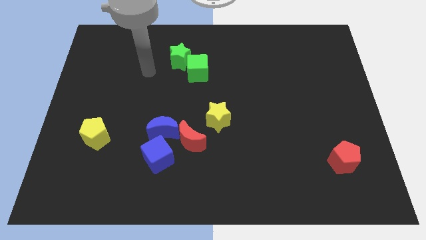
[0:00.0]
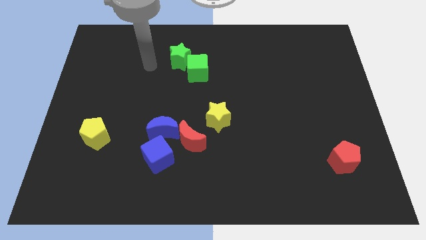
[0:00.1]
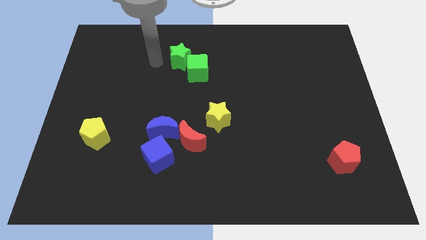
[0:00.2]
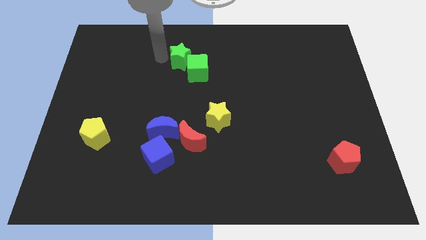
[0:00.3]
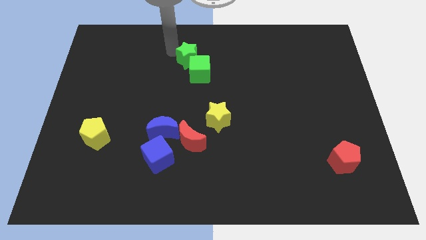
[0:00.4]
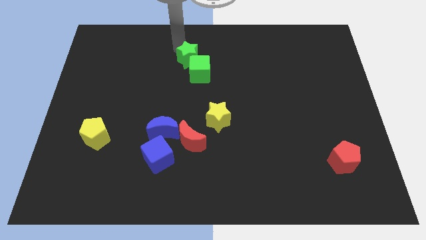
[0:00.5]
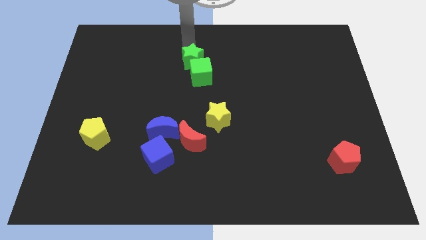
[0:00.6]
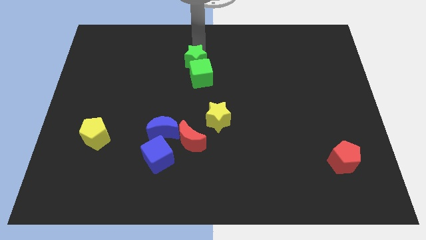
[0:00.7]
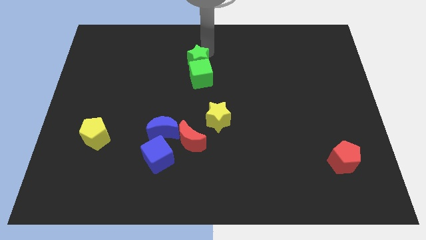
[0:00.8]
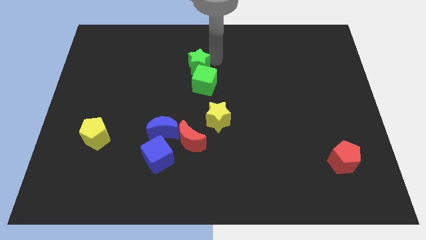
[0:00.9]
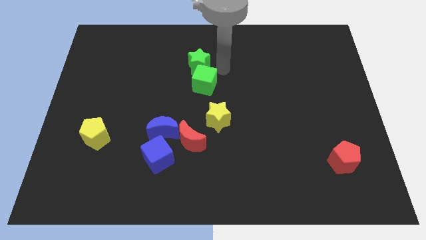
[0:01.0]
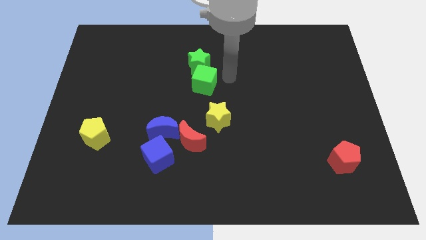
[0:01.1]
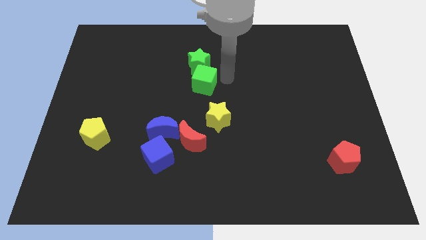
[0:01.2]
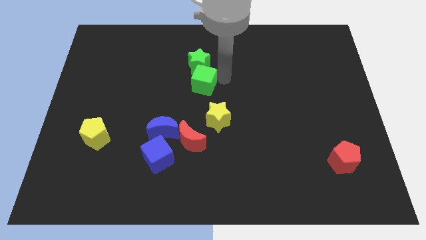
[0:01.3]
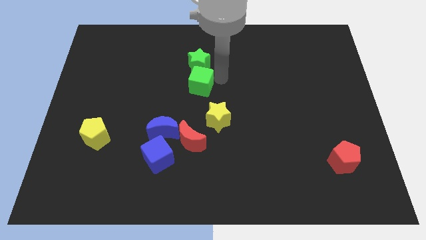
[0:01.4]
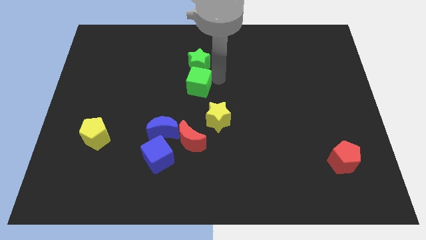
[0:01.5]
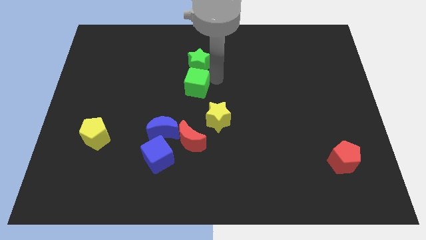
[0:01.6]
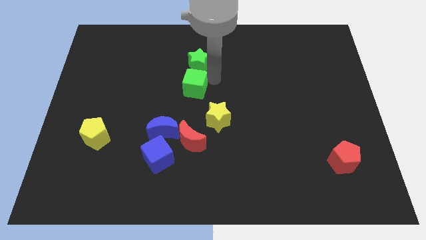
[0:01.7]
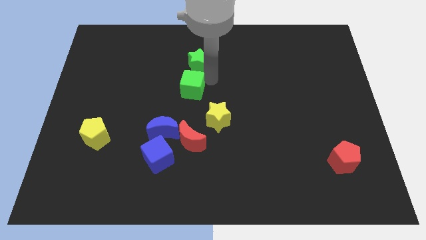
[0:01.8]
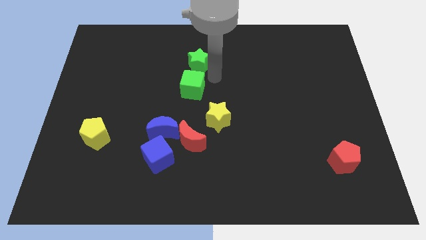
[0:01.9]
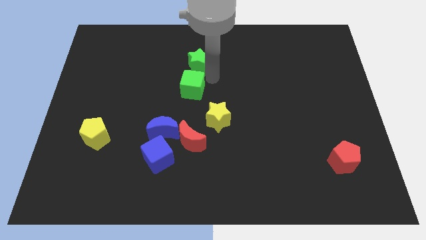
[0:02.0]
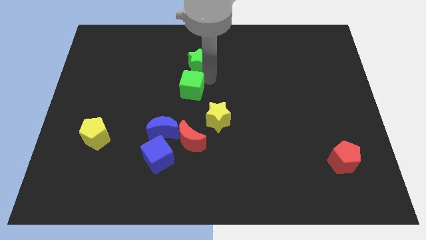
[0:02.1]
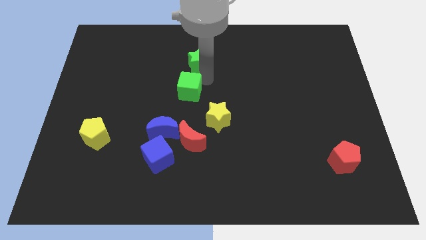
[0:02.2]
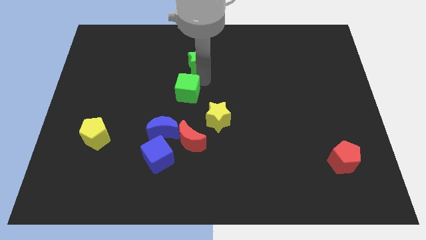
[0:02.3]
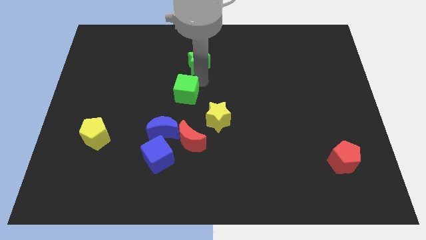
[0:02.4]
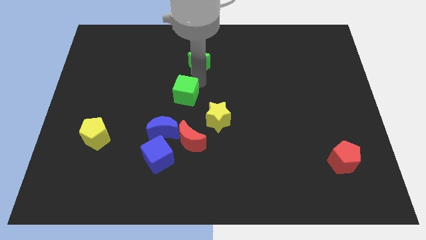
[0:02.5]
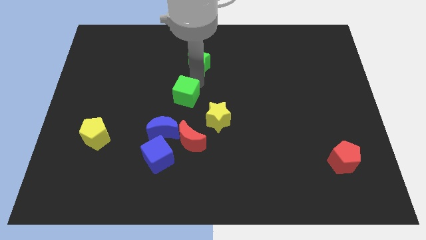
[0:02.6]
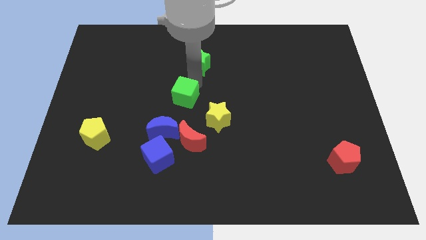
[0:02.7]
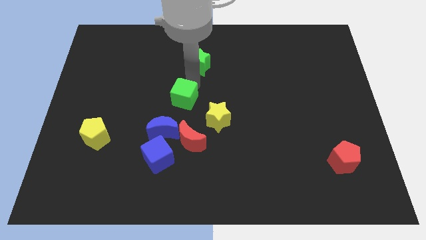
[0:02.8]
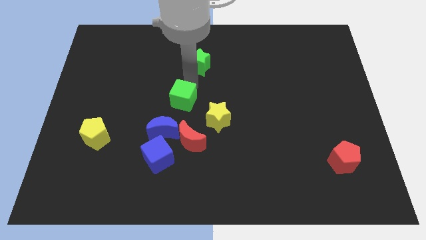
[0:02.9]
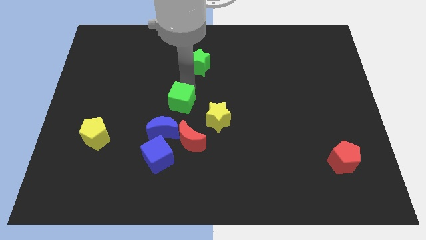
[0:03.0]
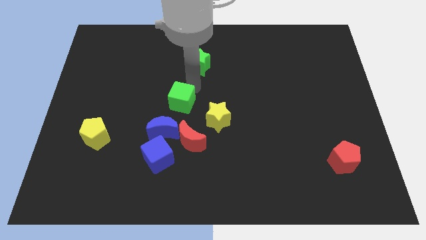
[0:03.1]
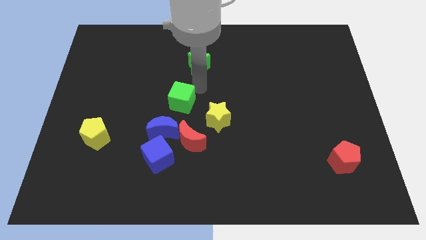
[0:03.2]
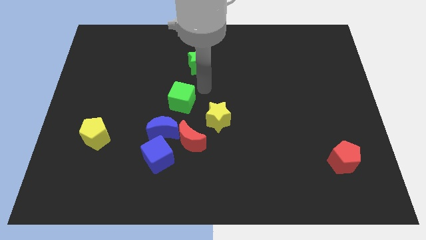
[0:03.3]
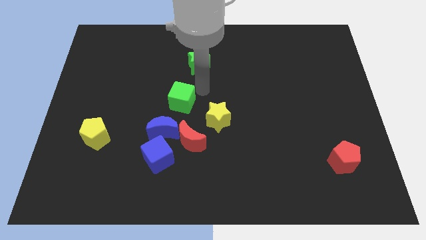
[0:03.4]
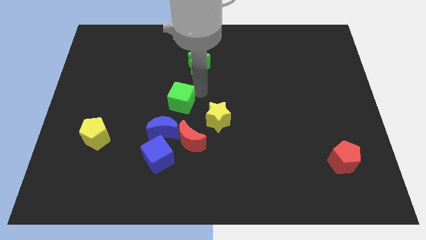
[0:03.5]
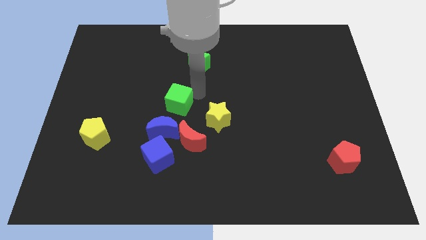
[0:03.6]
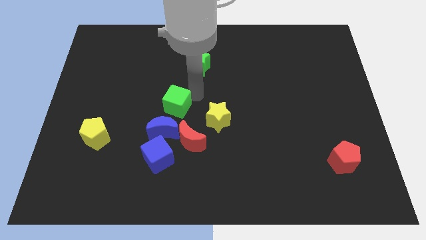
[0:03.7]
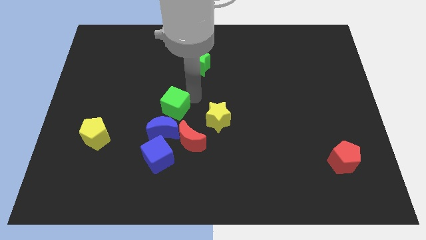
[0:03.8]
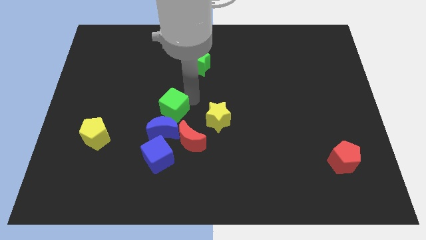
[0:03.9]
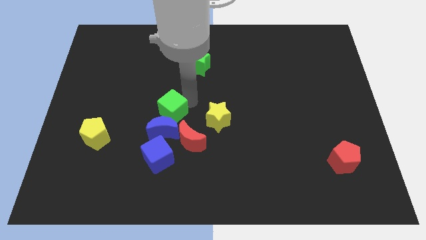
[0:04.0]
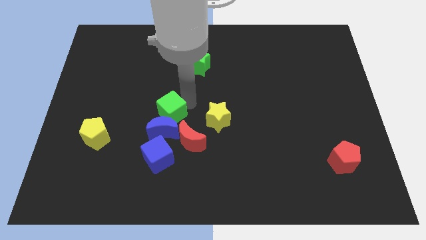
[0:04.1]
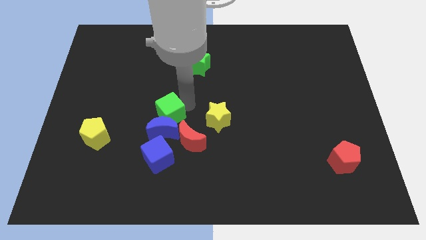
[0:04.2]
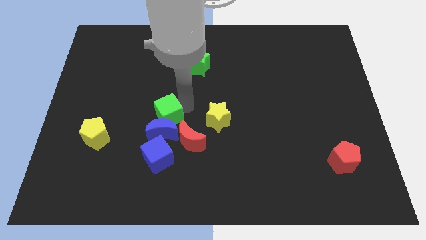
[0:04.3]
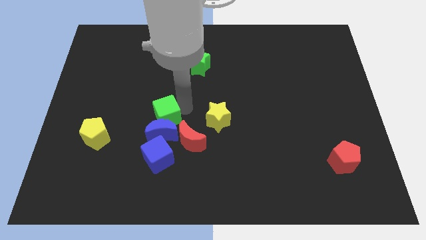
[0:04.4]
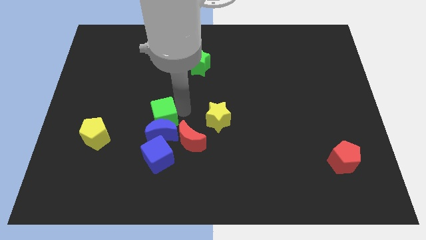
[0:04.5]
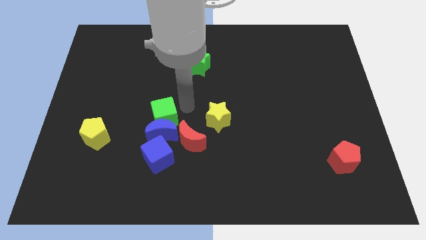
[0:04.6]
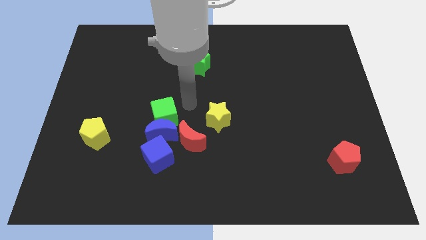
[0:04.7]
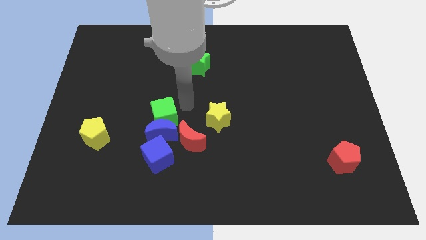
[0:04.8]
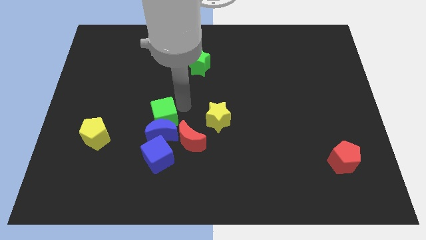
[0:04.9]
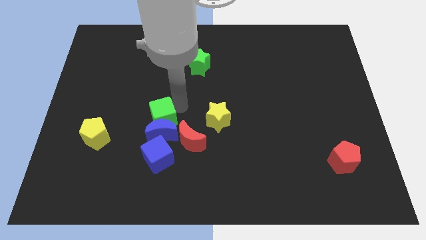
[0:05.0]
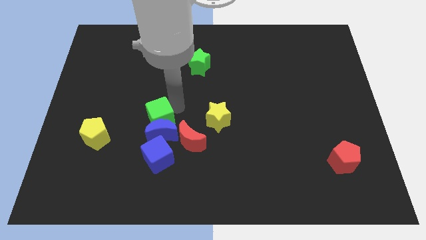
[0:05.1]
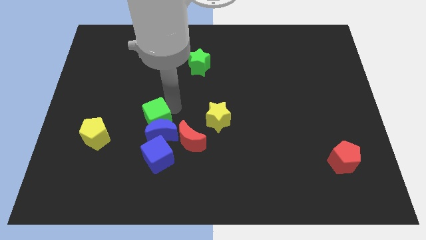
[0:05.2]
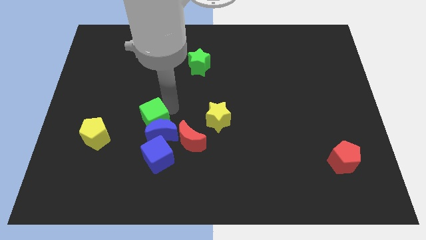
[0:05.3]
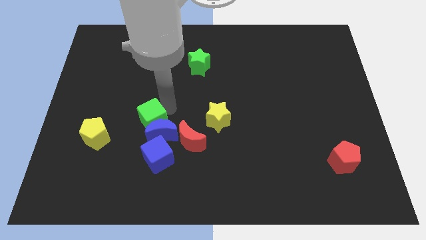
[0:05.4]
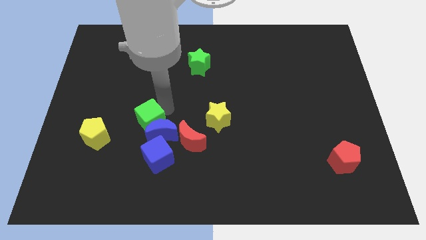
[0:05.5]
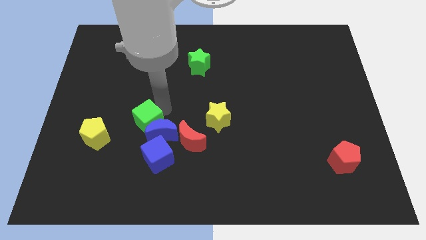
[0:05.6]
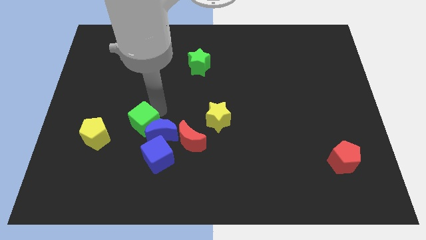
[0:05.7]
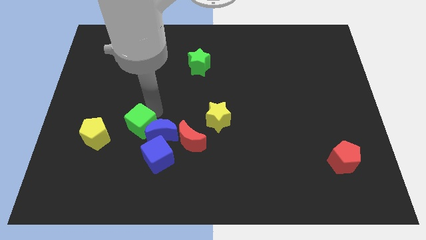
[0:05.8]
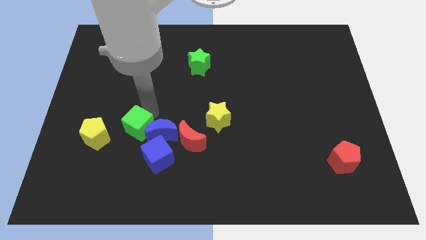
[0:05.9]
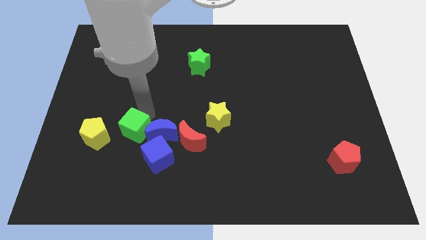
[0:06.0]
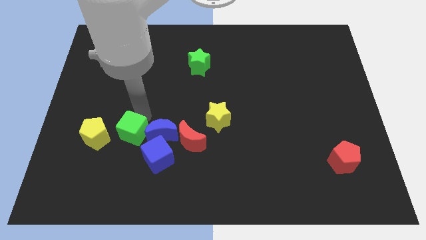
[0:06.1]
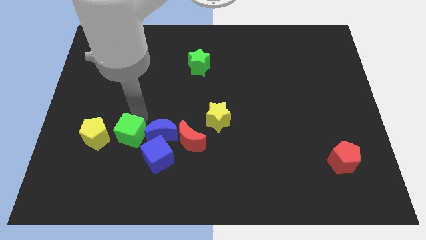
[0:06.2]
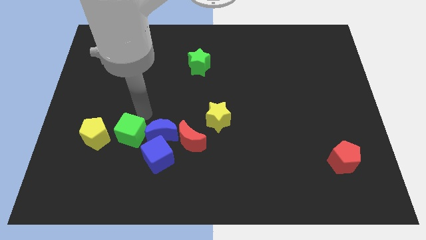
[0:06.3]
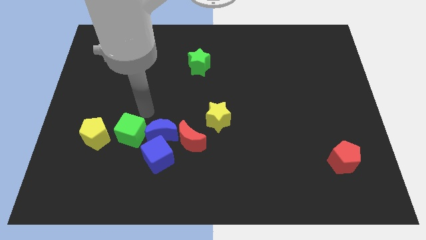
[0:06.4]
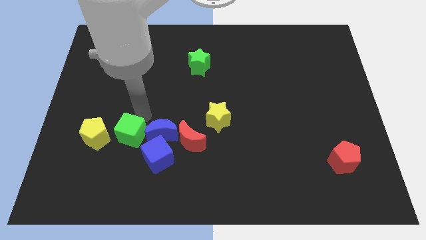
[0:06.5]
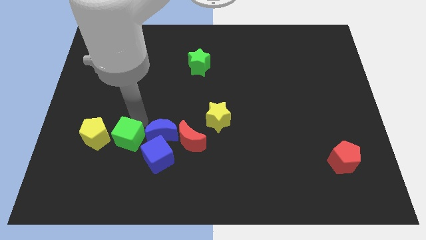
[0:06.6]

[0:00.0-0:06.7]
push the green cube to the bottom right side of the yellow pentagon

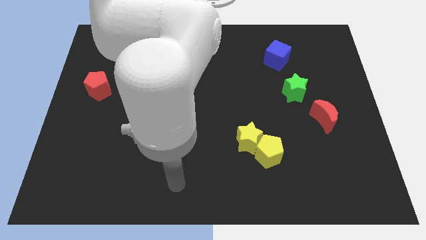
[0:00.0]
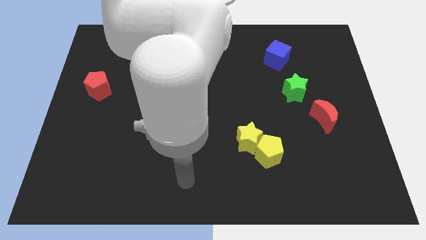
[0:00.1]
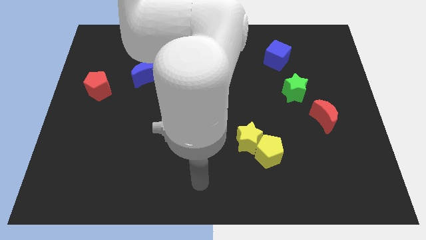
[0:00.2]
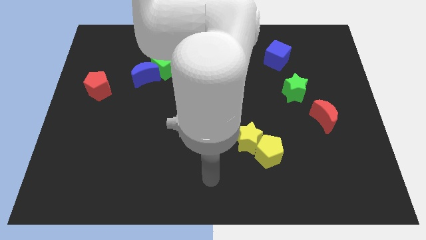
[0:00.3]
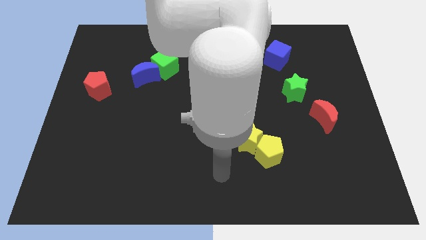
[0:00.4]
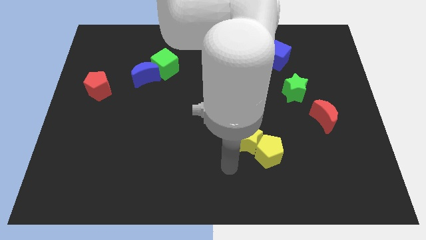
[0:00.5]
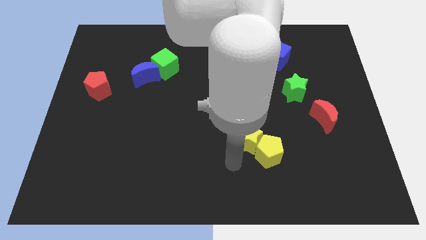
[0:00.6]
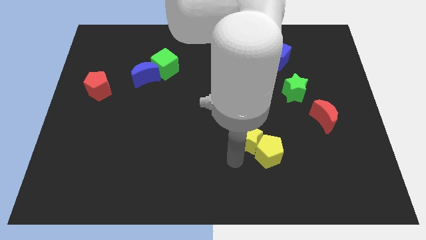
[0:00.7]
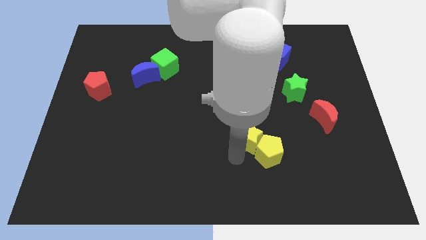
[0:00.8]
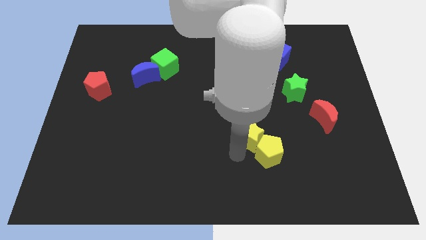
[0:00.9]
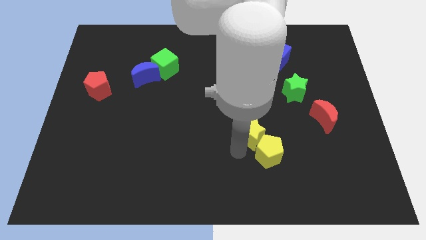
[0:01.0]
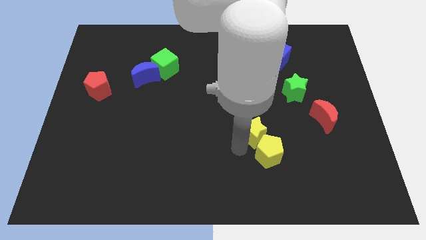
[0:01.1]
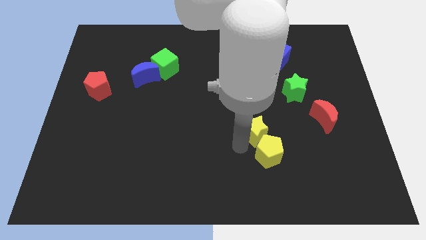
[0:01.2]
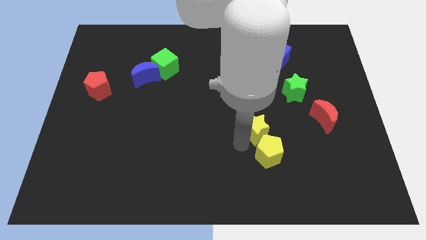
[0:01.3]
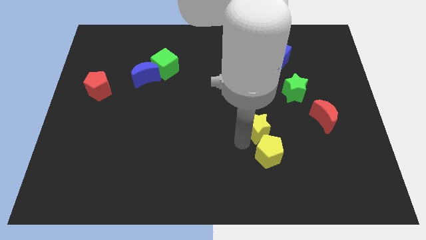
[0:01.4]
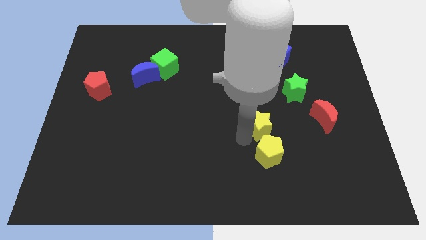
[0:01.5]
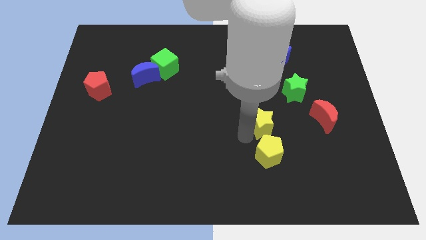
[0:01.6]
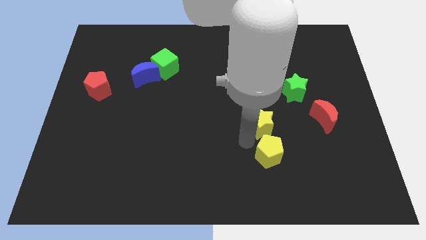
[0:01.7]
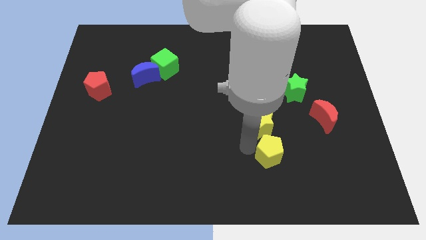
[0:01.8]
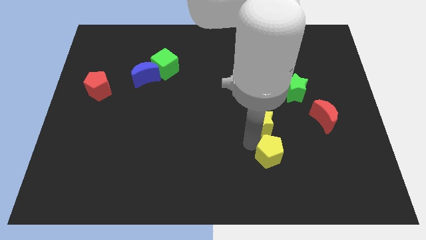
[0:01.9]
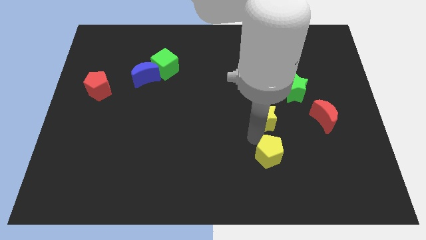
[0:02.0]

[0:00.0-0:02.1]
move the yellow star to the bottom left of the green star
